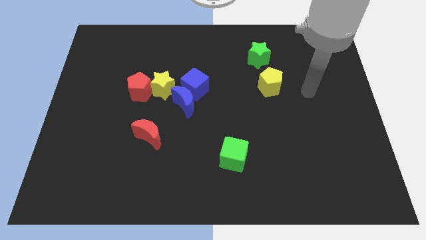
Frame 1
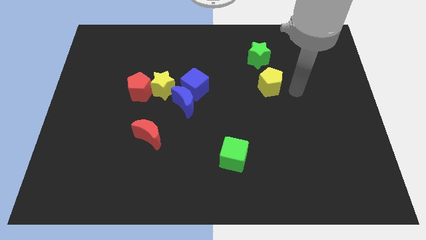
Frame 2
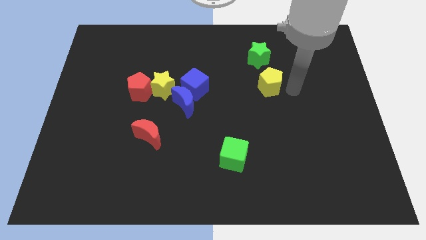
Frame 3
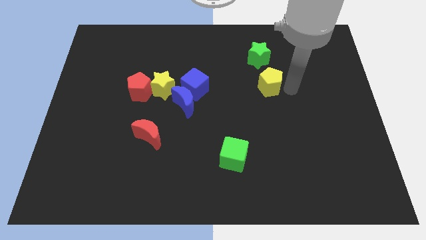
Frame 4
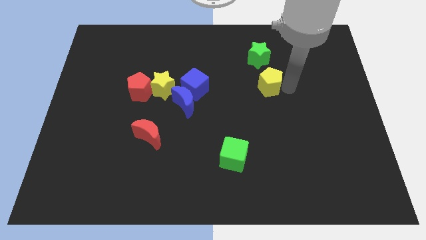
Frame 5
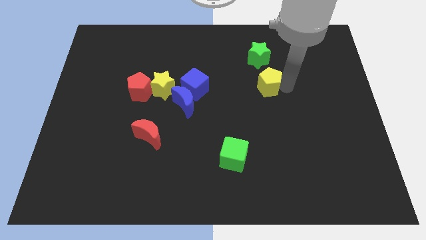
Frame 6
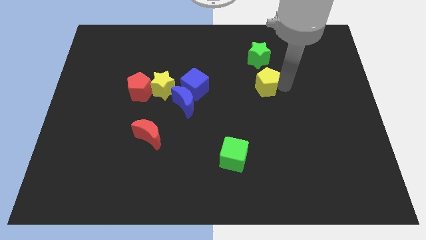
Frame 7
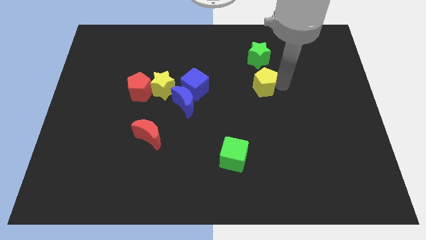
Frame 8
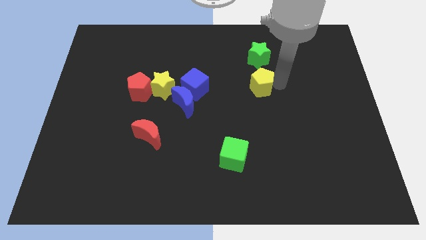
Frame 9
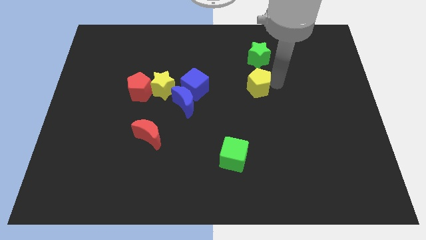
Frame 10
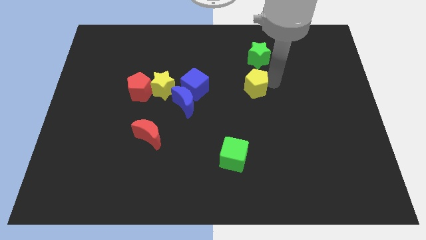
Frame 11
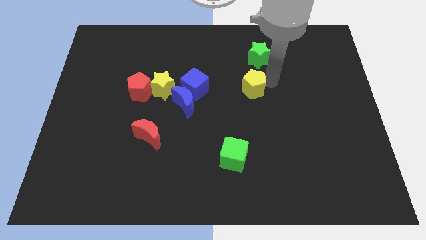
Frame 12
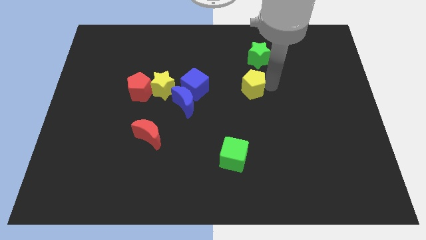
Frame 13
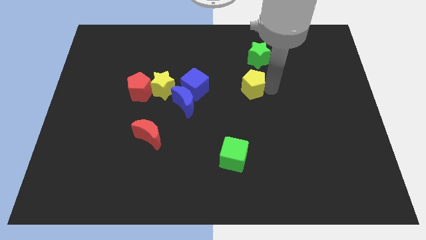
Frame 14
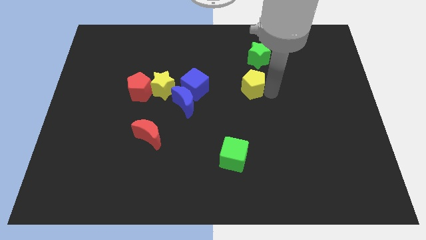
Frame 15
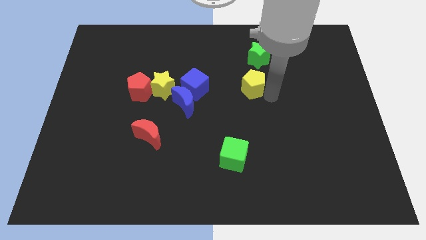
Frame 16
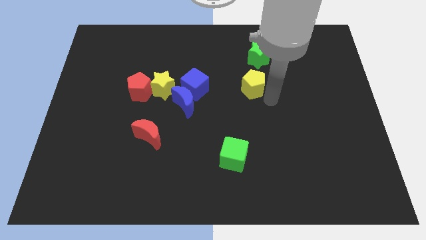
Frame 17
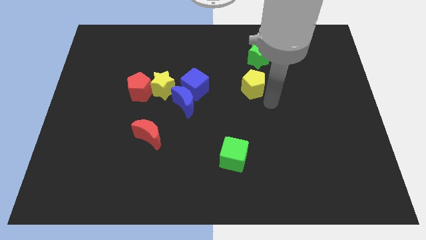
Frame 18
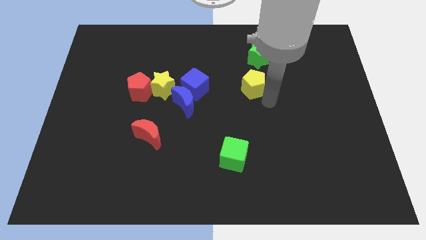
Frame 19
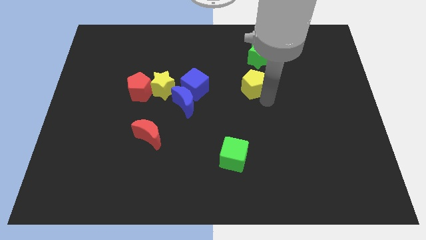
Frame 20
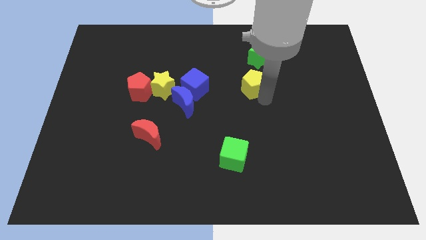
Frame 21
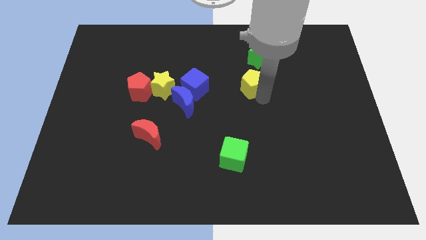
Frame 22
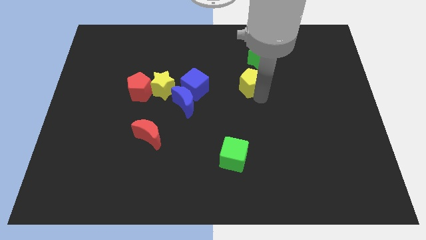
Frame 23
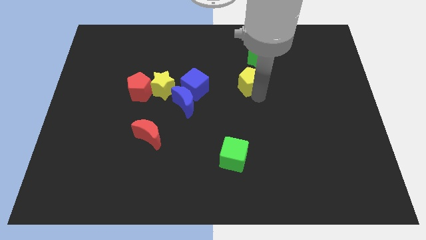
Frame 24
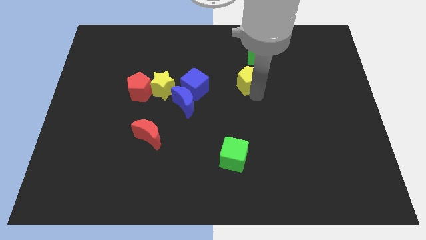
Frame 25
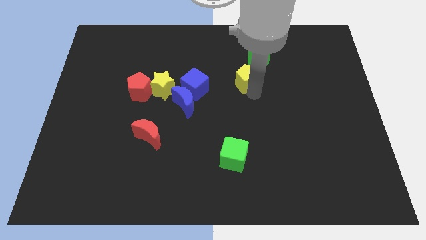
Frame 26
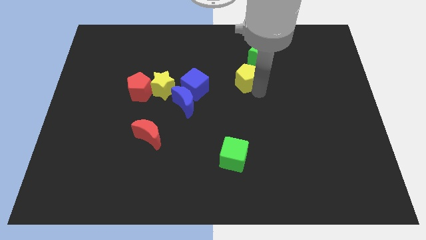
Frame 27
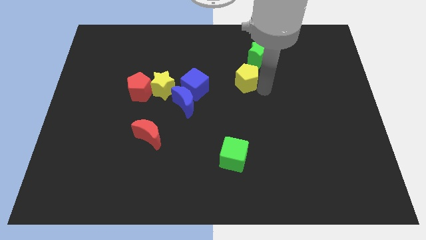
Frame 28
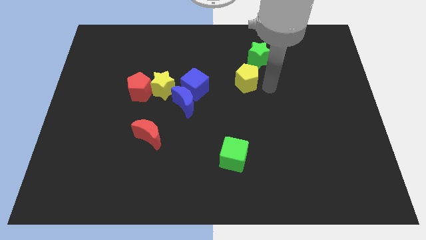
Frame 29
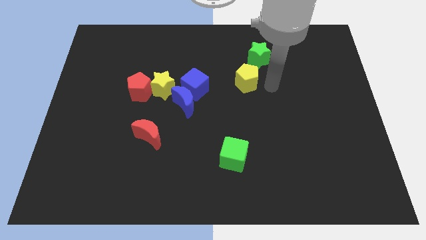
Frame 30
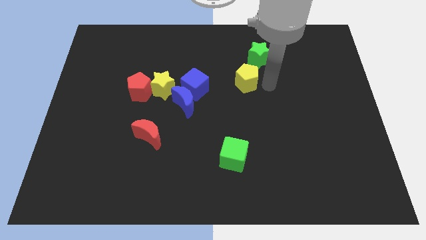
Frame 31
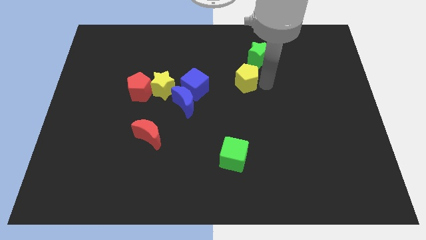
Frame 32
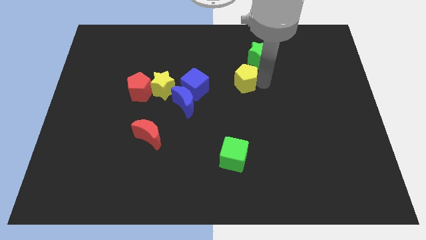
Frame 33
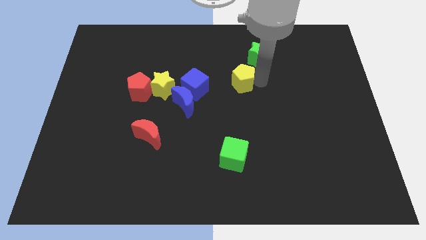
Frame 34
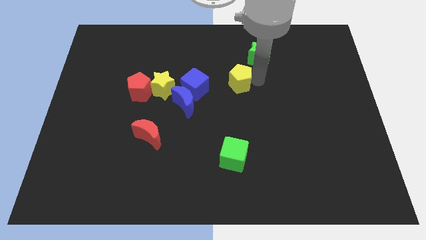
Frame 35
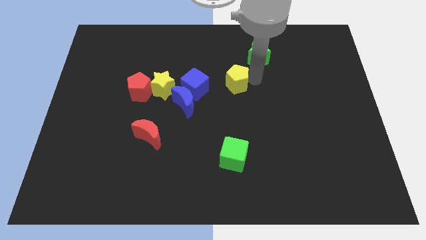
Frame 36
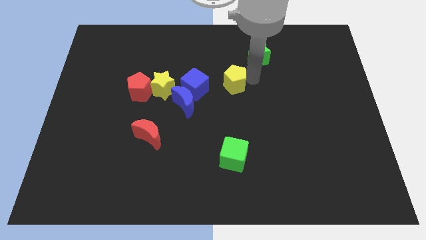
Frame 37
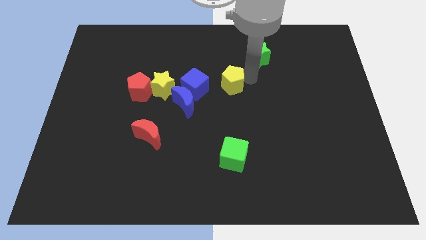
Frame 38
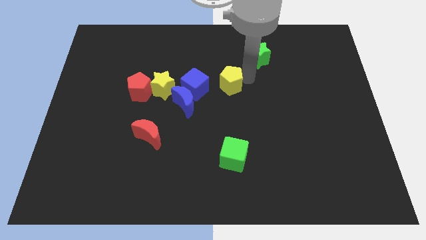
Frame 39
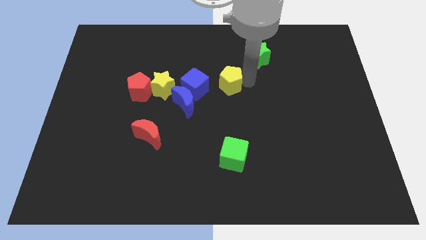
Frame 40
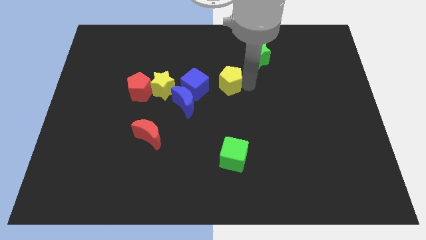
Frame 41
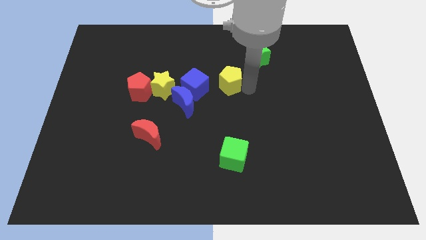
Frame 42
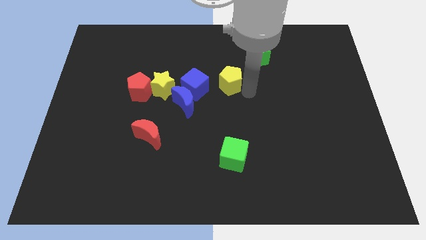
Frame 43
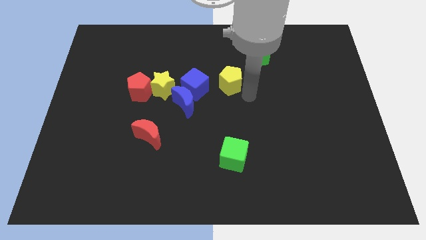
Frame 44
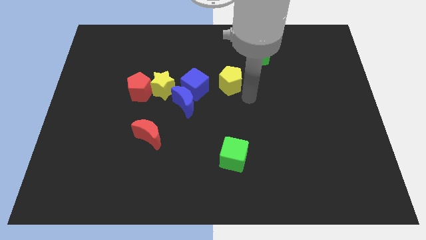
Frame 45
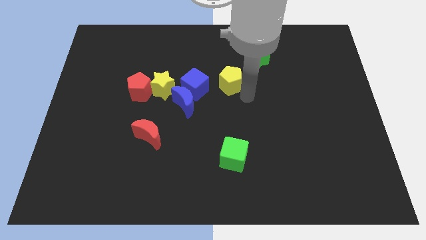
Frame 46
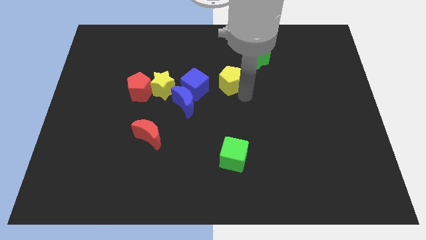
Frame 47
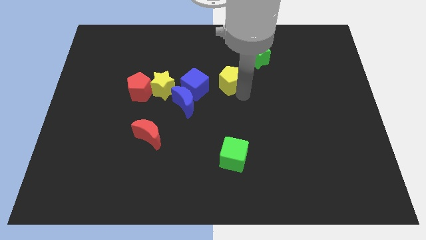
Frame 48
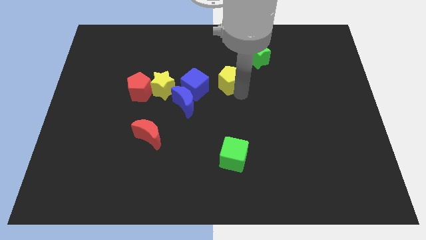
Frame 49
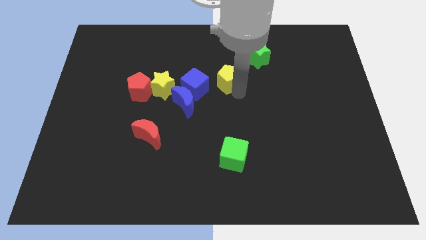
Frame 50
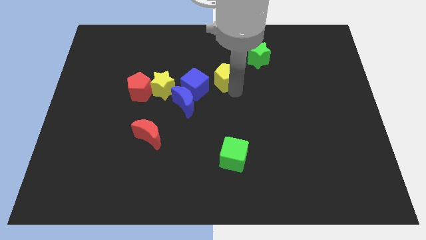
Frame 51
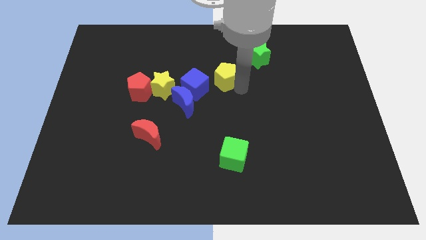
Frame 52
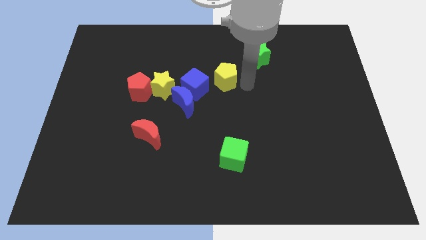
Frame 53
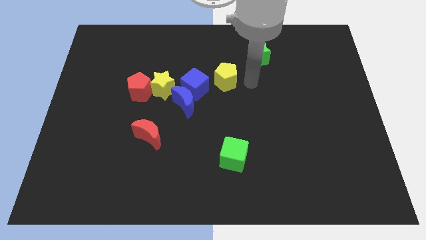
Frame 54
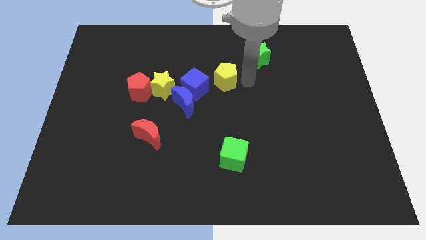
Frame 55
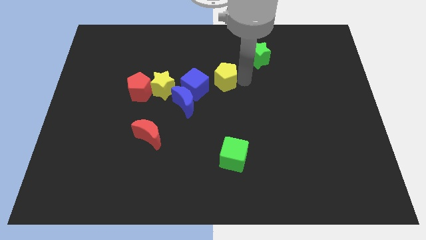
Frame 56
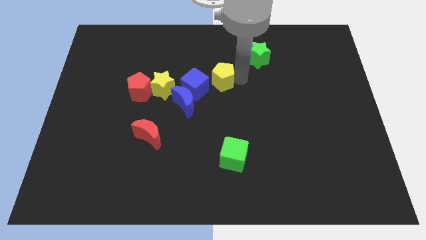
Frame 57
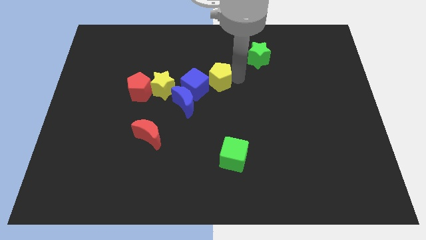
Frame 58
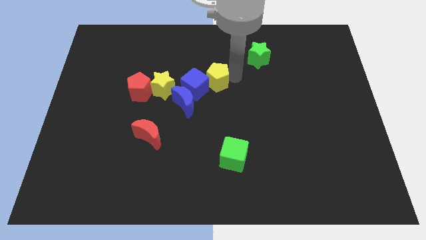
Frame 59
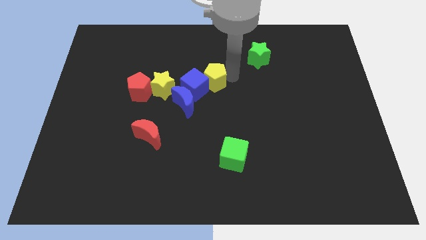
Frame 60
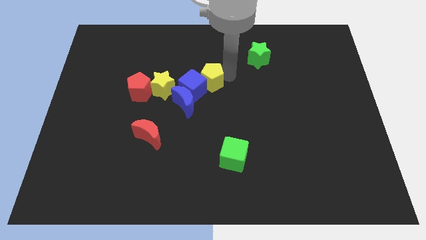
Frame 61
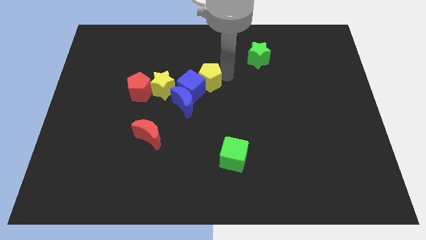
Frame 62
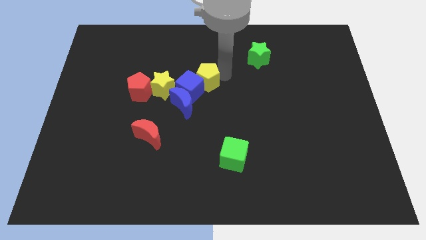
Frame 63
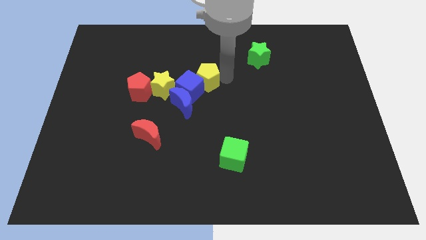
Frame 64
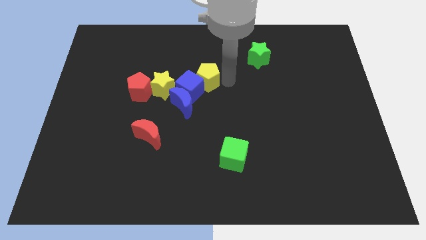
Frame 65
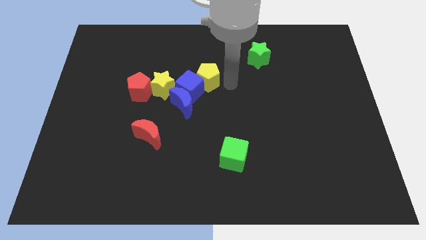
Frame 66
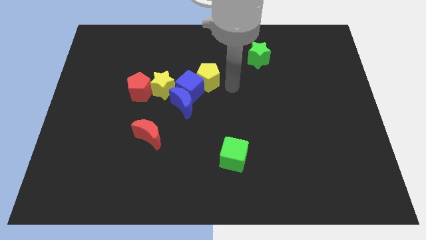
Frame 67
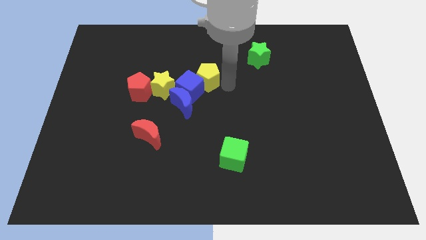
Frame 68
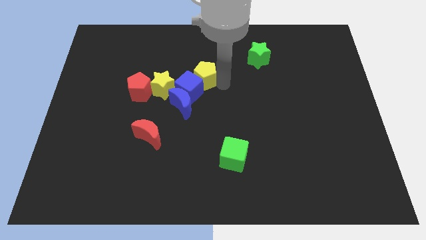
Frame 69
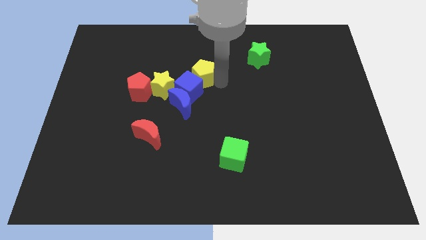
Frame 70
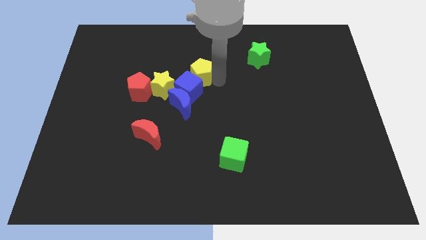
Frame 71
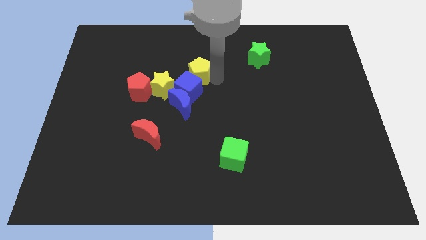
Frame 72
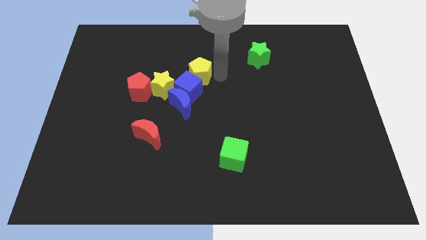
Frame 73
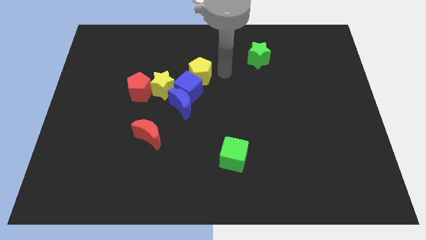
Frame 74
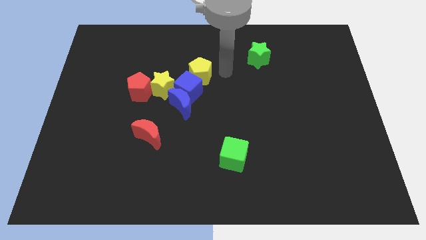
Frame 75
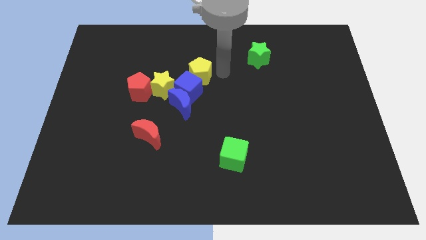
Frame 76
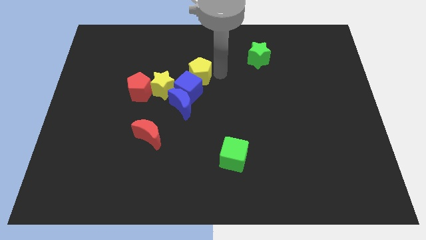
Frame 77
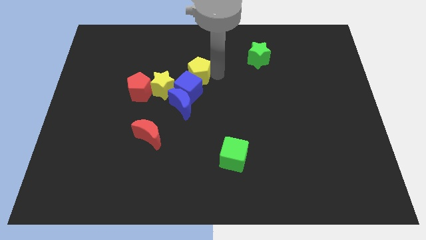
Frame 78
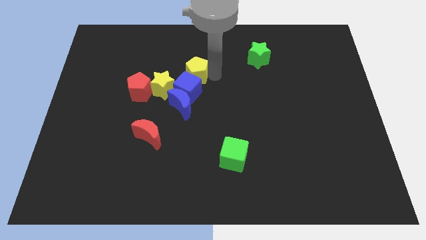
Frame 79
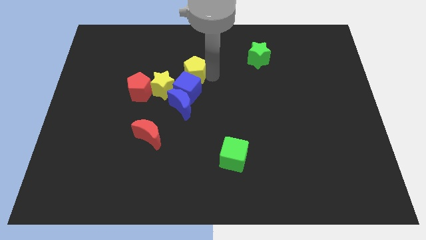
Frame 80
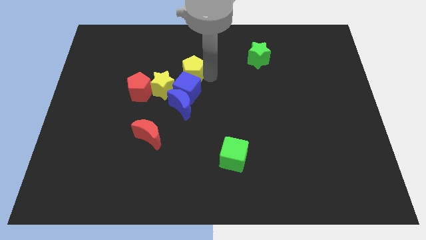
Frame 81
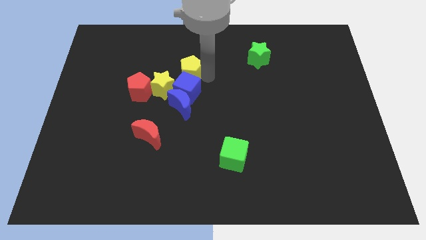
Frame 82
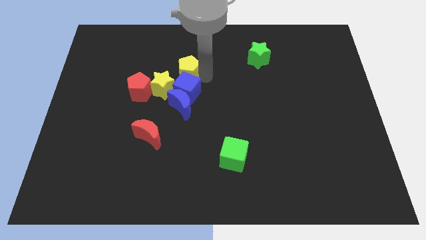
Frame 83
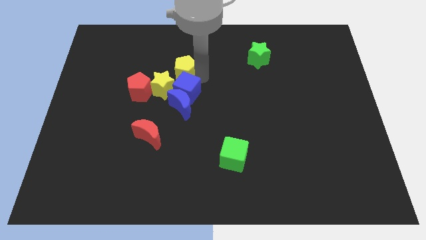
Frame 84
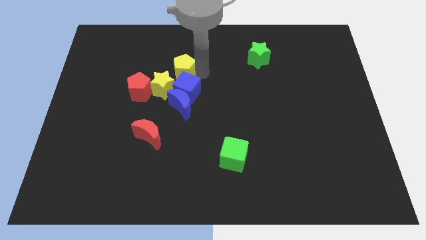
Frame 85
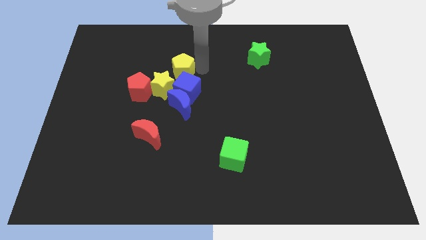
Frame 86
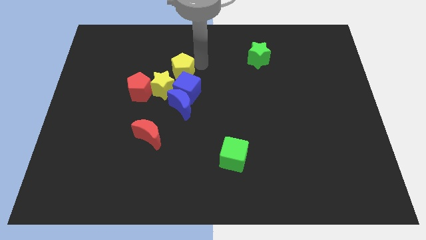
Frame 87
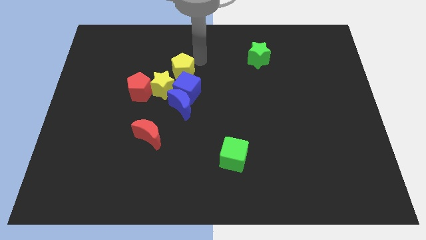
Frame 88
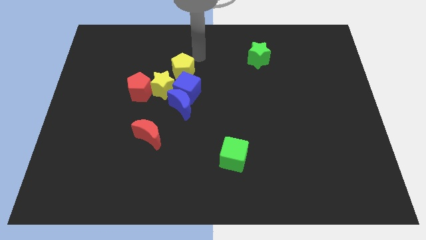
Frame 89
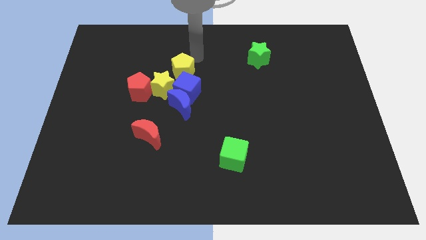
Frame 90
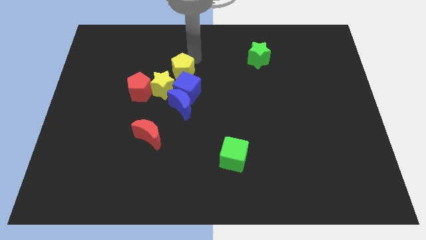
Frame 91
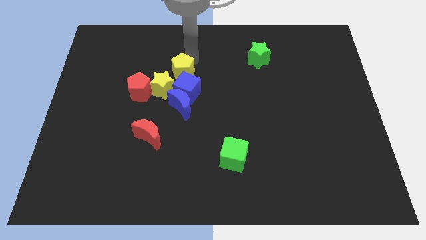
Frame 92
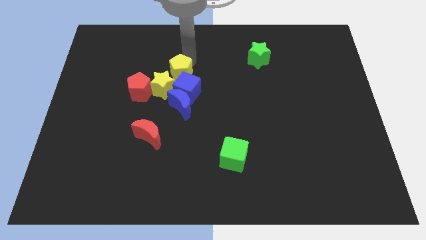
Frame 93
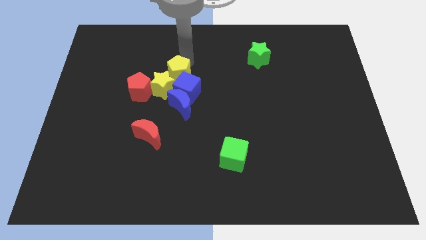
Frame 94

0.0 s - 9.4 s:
slide the yellow pentagon towards the yellow star
